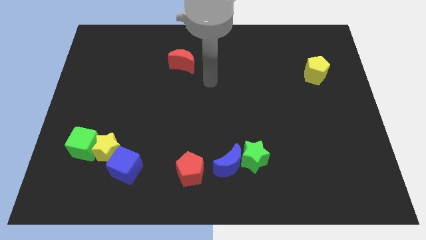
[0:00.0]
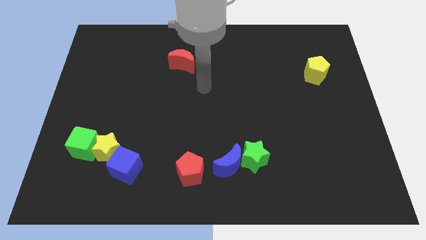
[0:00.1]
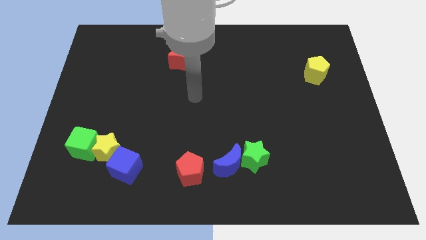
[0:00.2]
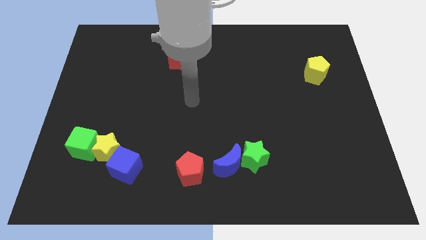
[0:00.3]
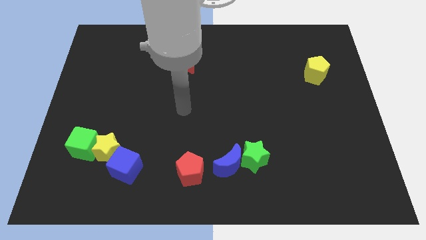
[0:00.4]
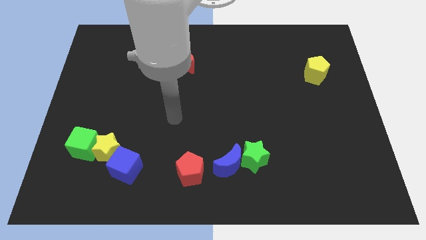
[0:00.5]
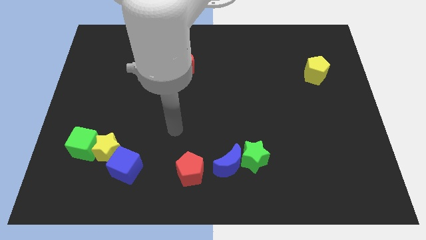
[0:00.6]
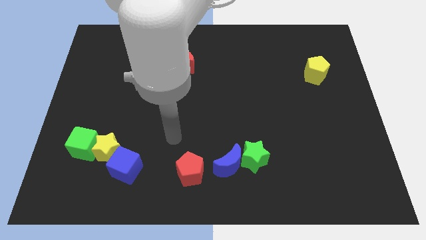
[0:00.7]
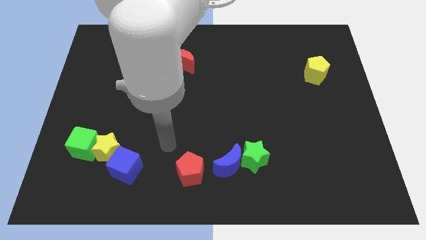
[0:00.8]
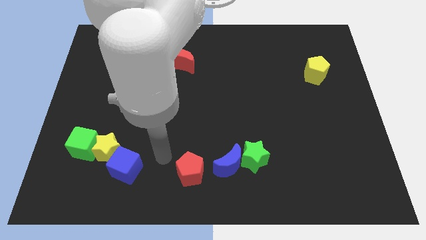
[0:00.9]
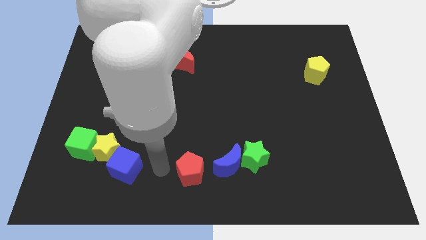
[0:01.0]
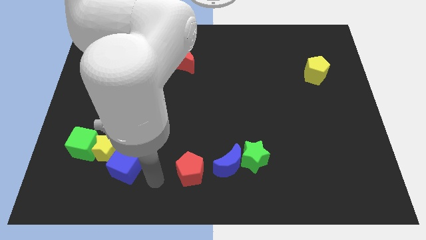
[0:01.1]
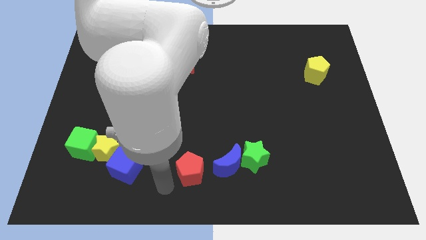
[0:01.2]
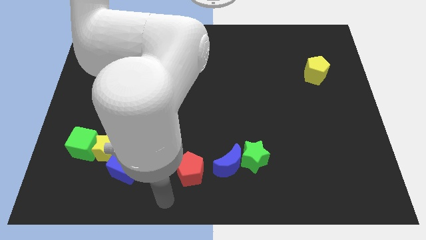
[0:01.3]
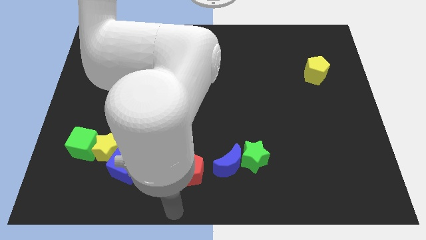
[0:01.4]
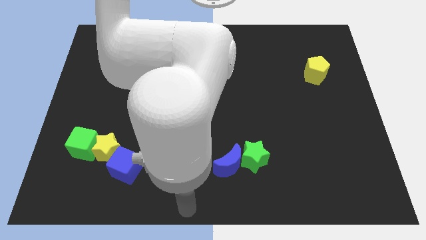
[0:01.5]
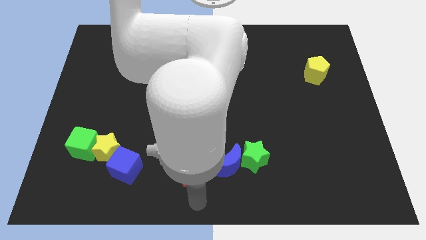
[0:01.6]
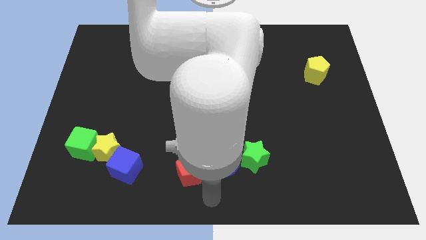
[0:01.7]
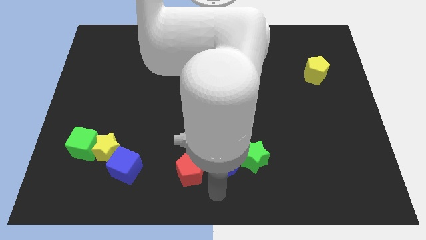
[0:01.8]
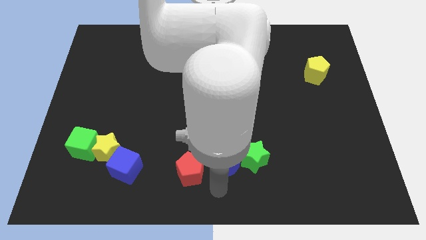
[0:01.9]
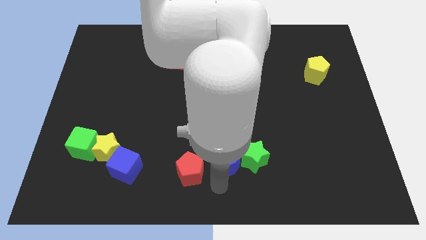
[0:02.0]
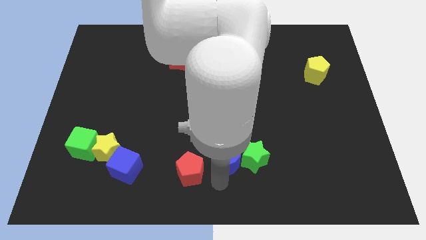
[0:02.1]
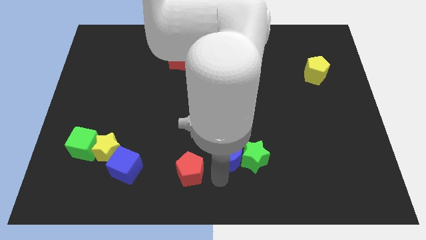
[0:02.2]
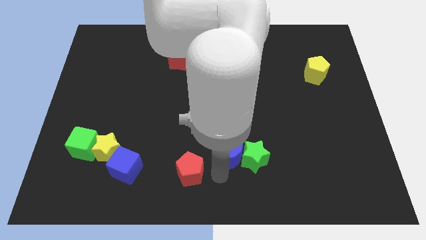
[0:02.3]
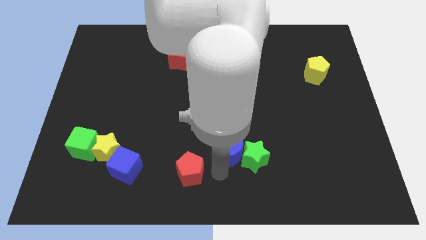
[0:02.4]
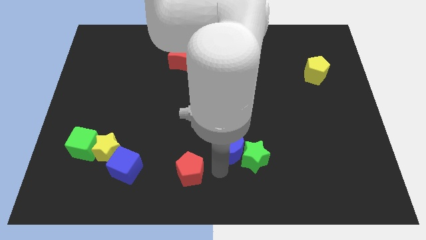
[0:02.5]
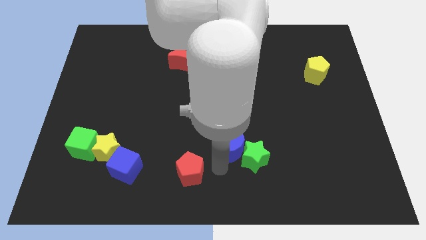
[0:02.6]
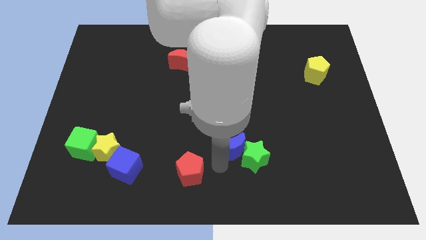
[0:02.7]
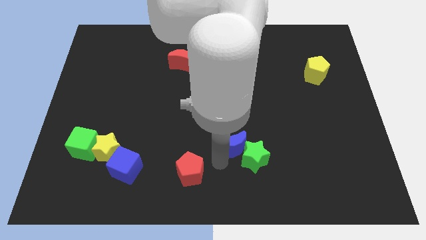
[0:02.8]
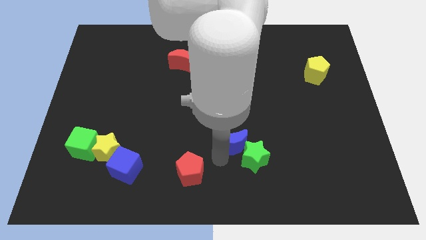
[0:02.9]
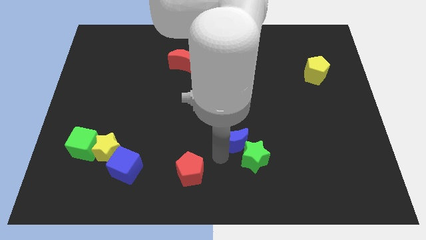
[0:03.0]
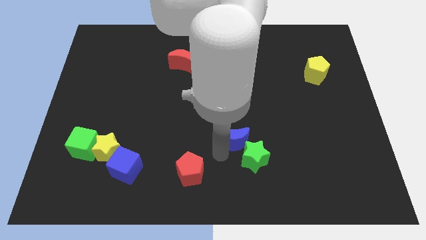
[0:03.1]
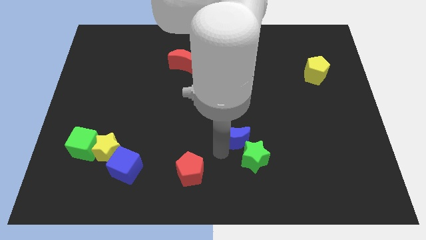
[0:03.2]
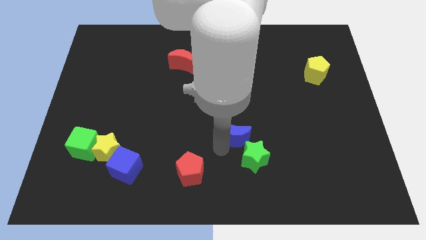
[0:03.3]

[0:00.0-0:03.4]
move the blue moon upwards slightly

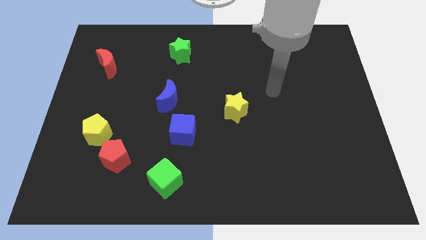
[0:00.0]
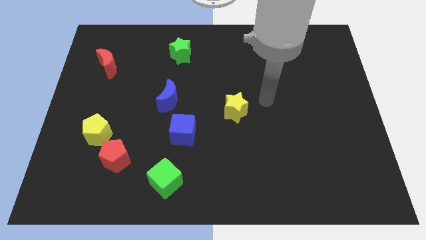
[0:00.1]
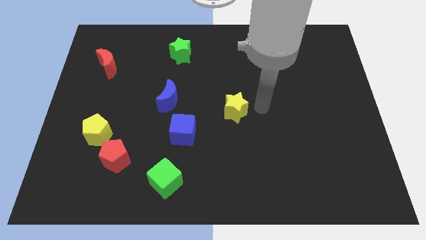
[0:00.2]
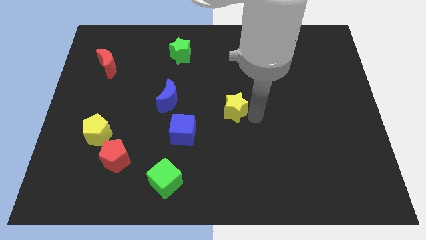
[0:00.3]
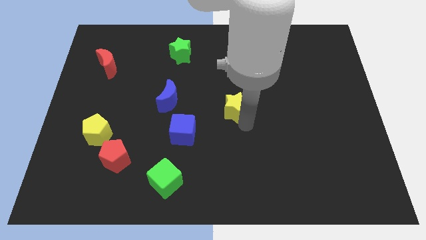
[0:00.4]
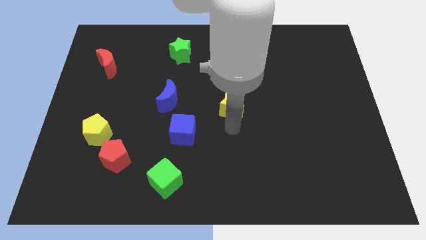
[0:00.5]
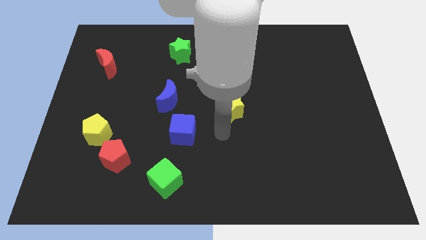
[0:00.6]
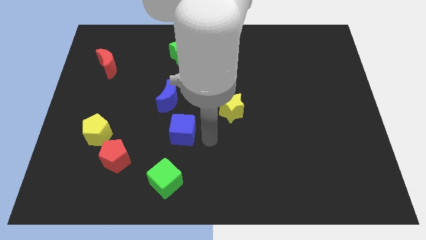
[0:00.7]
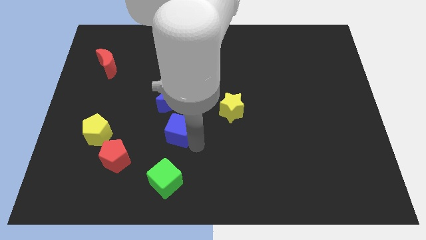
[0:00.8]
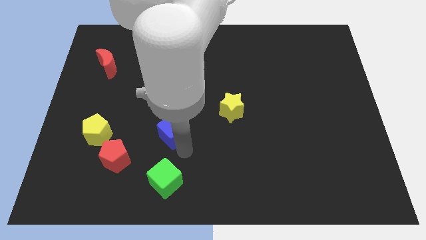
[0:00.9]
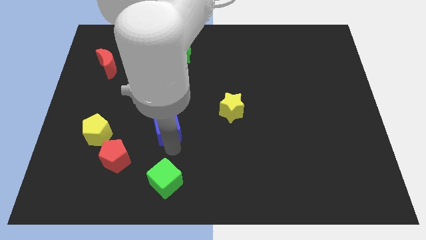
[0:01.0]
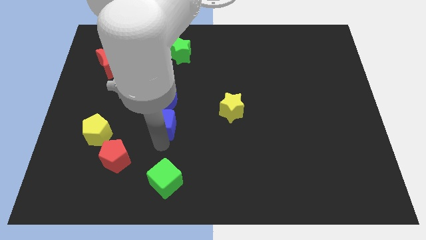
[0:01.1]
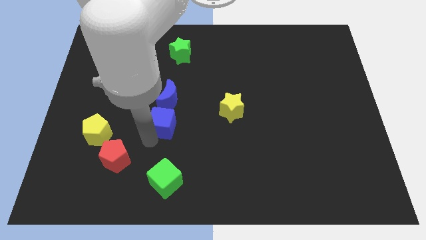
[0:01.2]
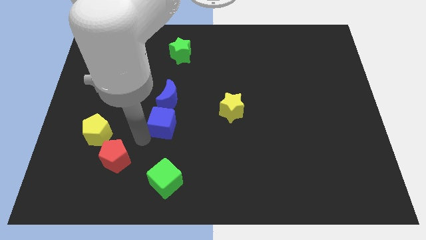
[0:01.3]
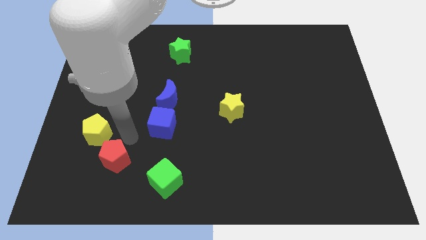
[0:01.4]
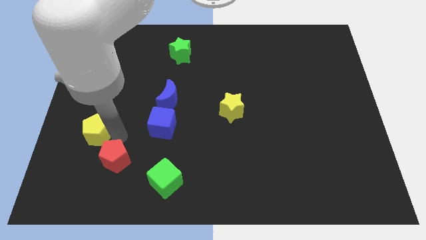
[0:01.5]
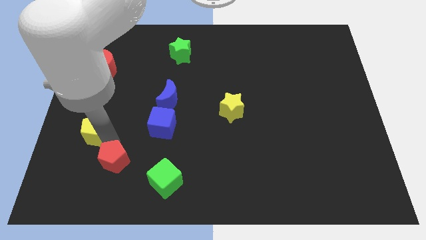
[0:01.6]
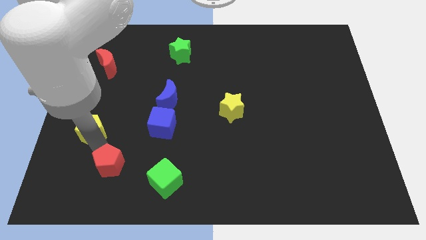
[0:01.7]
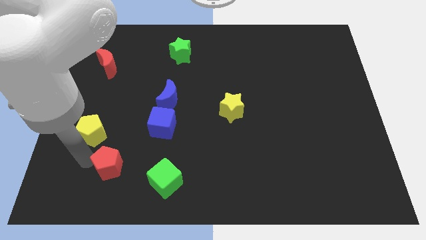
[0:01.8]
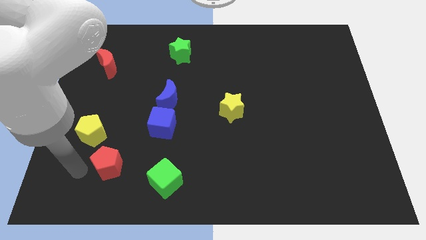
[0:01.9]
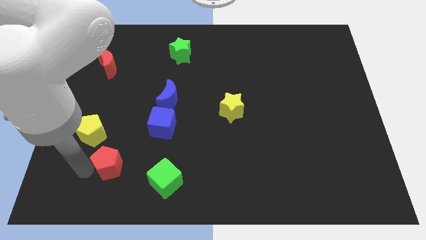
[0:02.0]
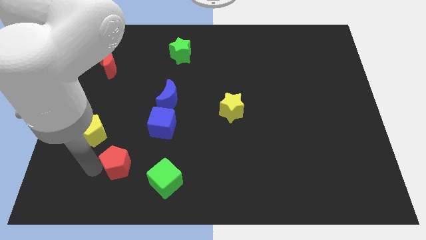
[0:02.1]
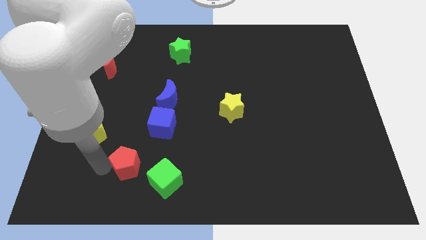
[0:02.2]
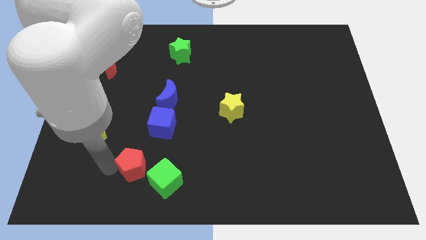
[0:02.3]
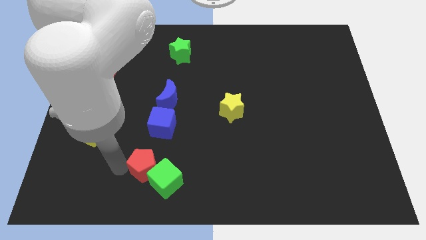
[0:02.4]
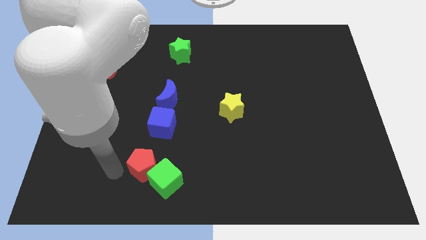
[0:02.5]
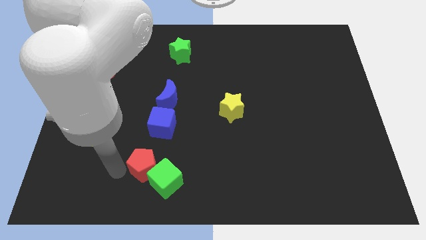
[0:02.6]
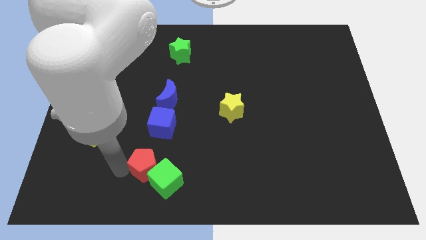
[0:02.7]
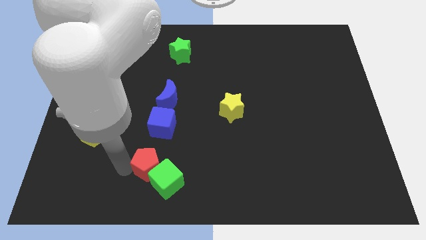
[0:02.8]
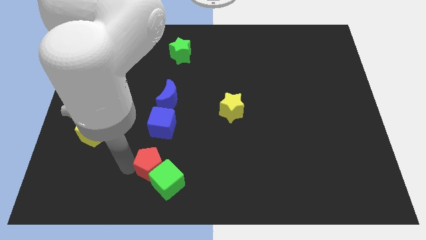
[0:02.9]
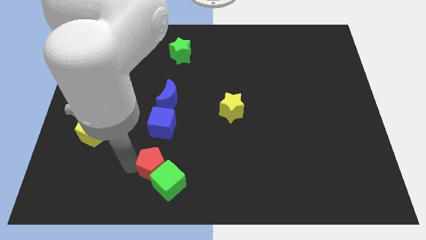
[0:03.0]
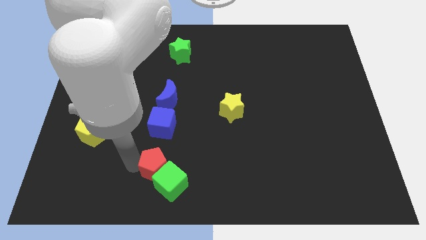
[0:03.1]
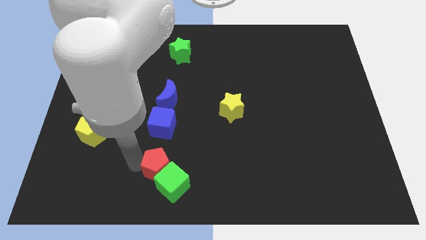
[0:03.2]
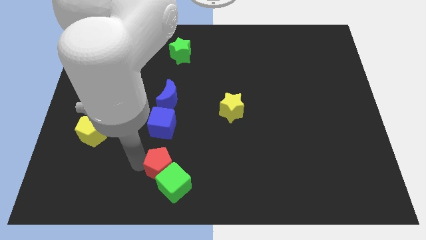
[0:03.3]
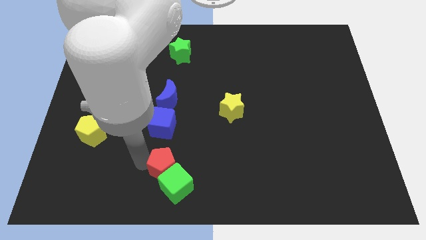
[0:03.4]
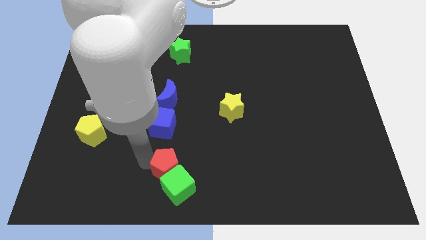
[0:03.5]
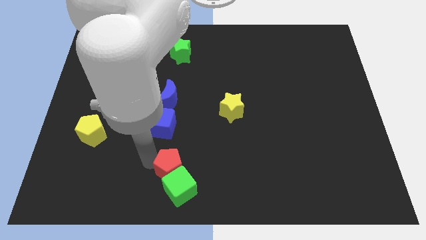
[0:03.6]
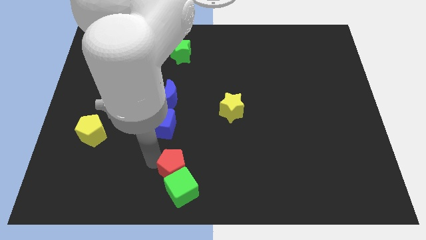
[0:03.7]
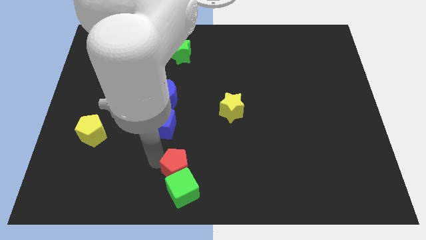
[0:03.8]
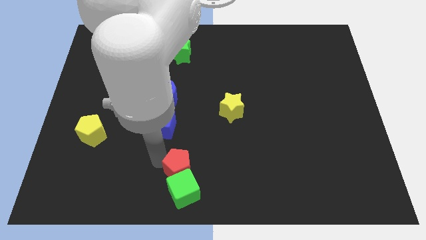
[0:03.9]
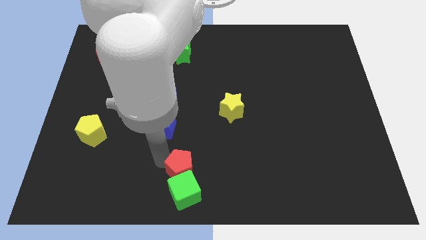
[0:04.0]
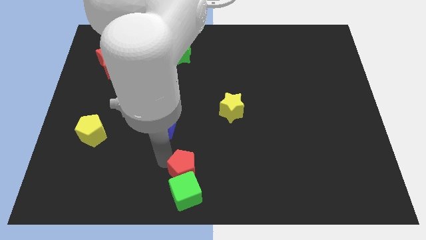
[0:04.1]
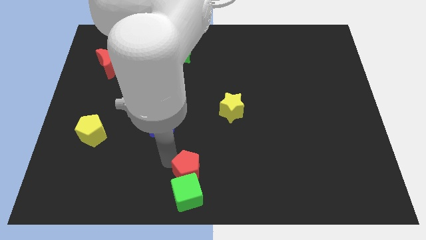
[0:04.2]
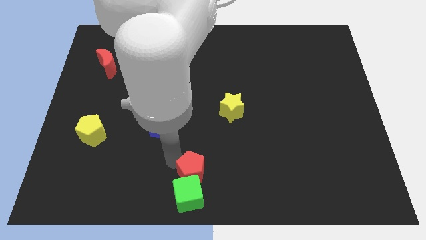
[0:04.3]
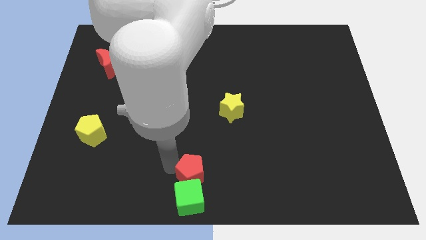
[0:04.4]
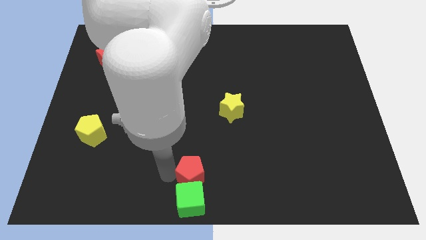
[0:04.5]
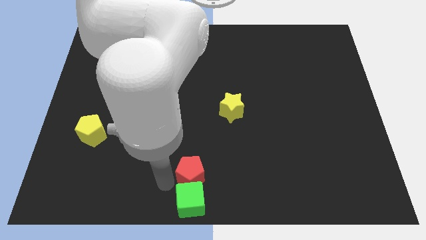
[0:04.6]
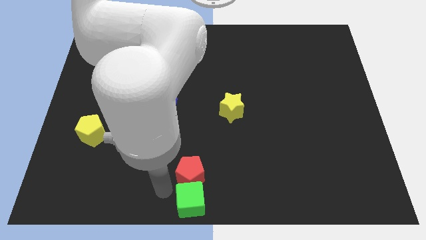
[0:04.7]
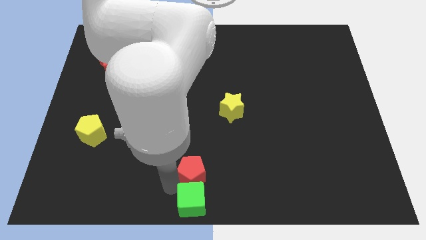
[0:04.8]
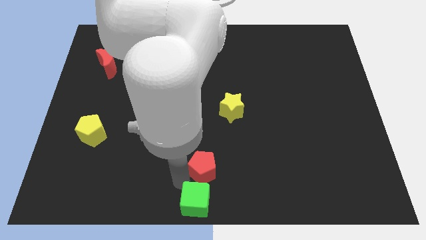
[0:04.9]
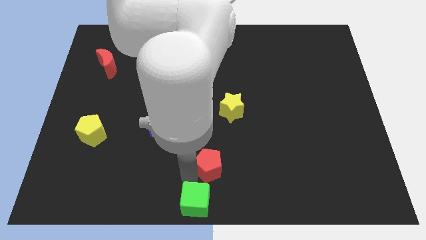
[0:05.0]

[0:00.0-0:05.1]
slide the red pentagon right
